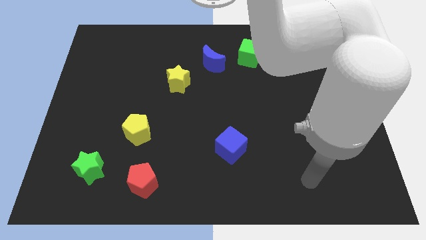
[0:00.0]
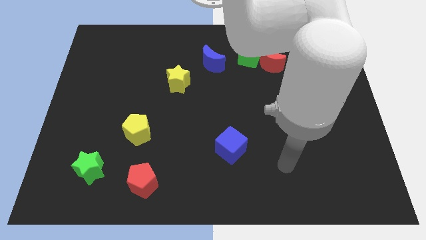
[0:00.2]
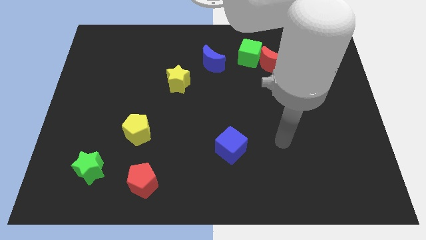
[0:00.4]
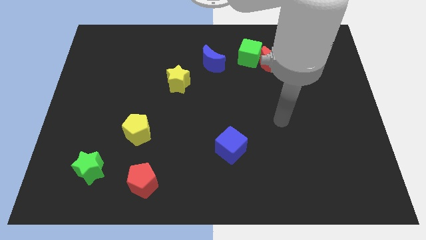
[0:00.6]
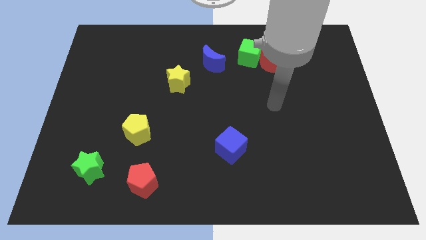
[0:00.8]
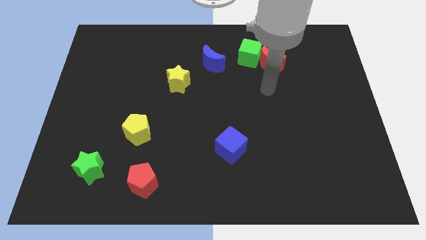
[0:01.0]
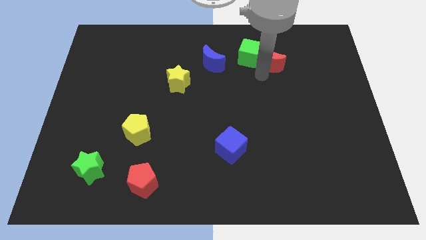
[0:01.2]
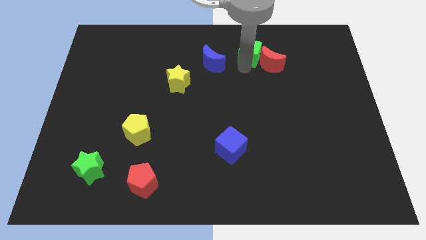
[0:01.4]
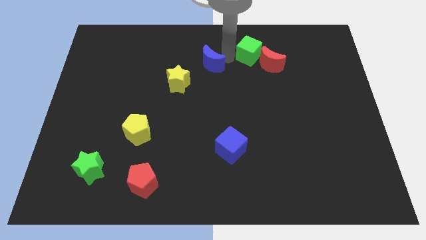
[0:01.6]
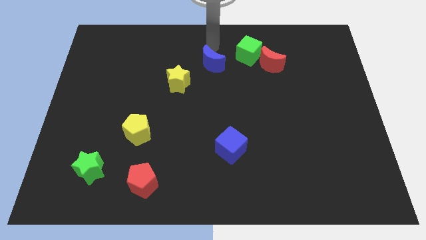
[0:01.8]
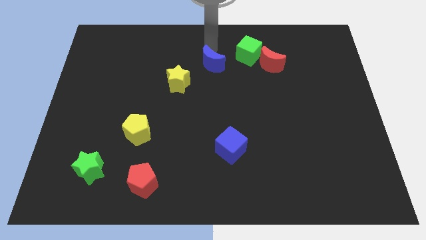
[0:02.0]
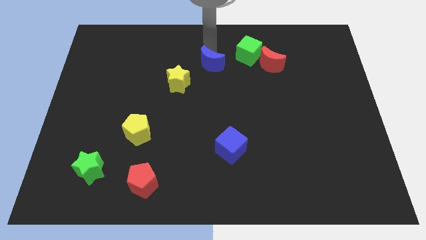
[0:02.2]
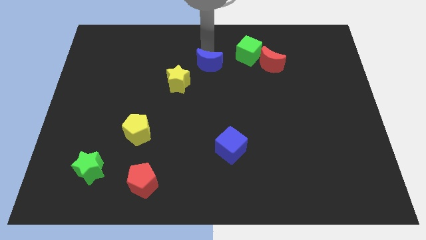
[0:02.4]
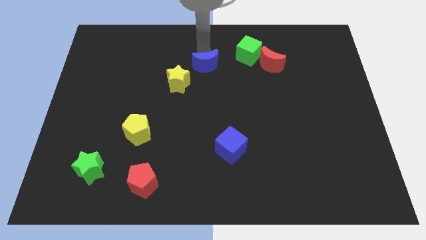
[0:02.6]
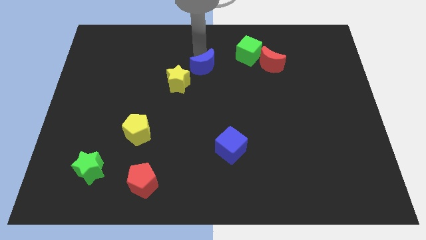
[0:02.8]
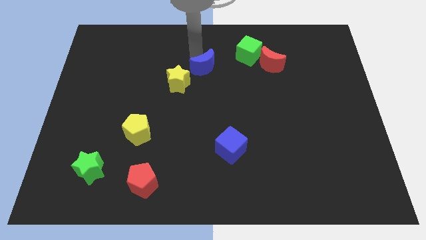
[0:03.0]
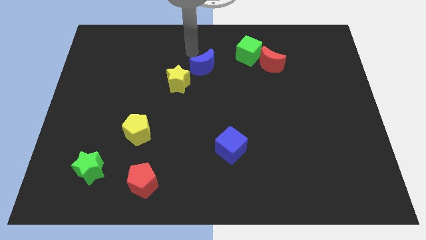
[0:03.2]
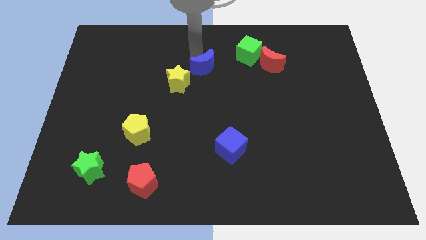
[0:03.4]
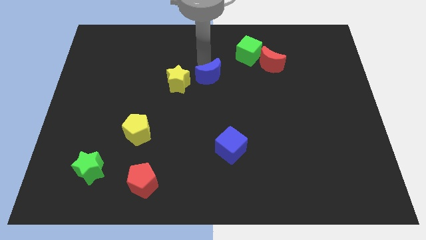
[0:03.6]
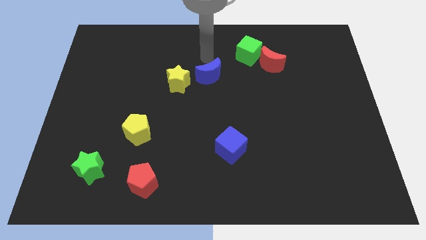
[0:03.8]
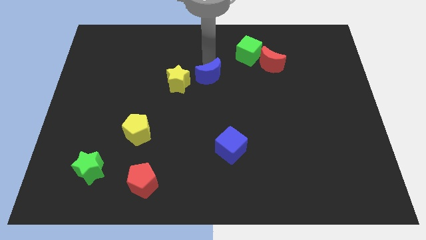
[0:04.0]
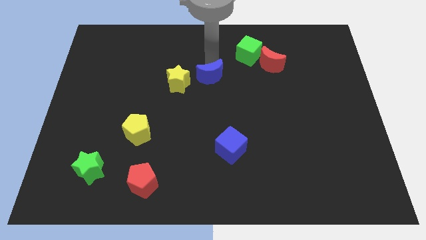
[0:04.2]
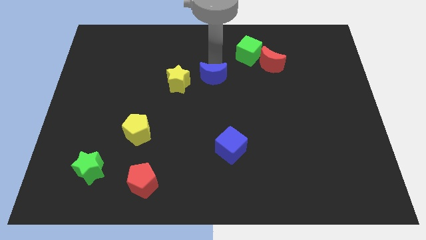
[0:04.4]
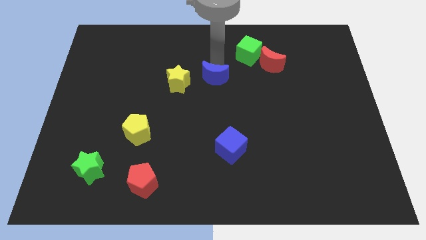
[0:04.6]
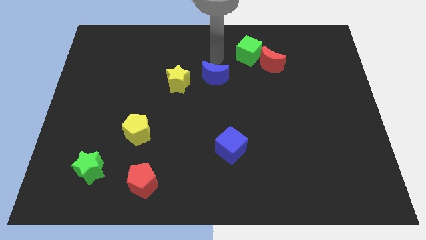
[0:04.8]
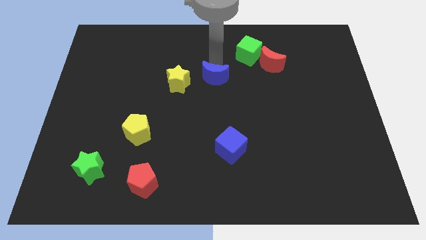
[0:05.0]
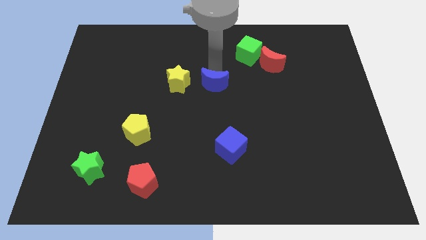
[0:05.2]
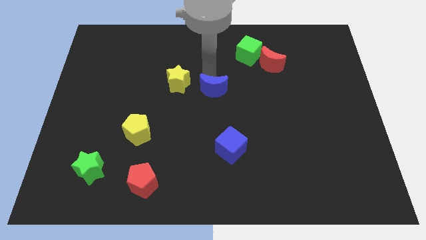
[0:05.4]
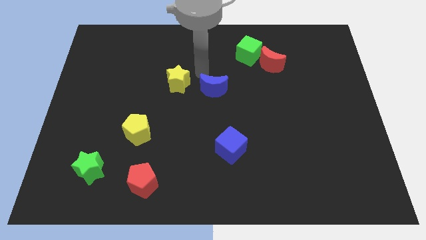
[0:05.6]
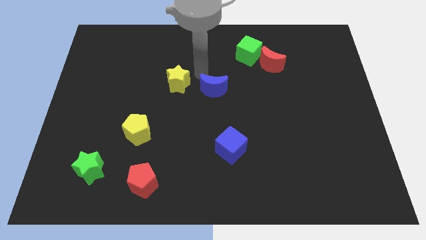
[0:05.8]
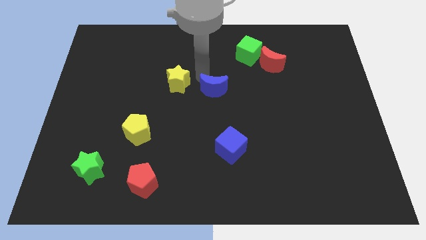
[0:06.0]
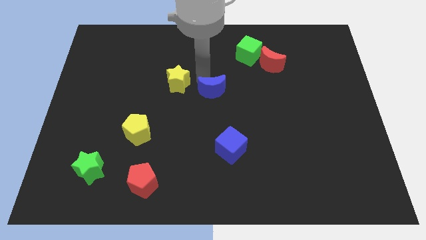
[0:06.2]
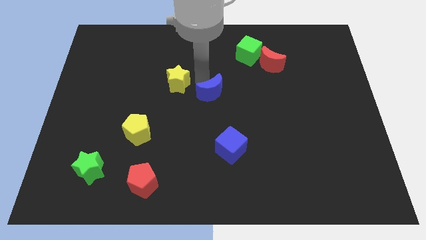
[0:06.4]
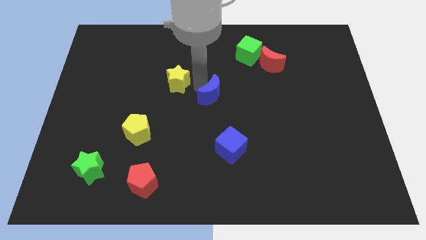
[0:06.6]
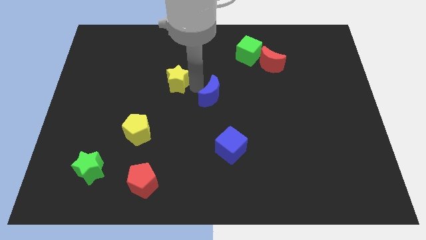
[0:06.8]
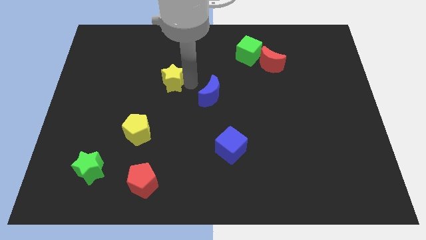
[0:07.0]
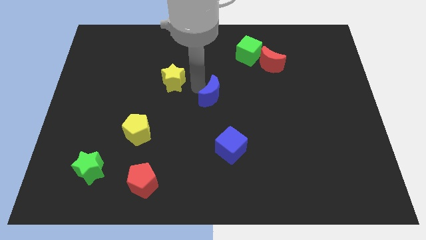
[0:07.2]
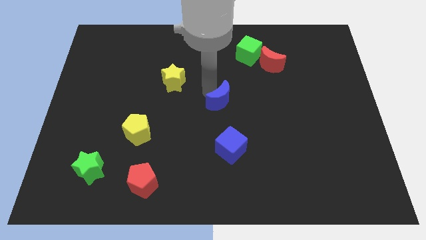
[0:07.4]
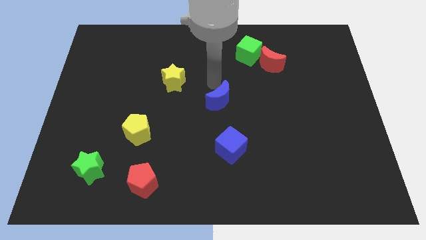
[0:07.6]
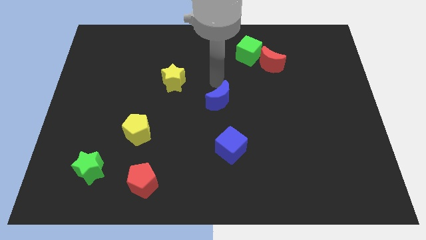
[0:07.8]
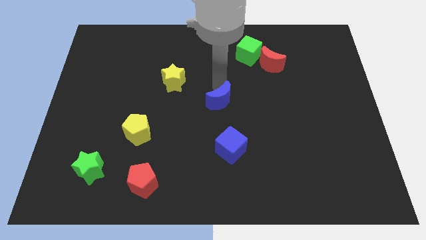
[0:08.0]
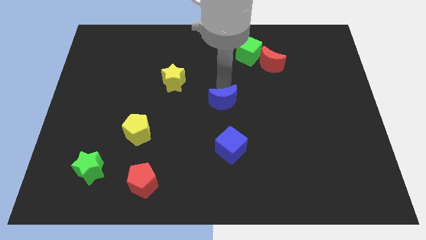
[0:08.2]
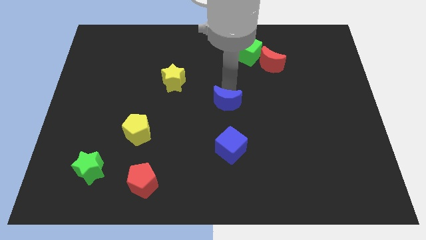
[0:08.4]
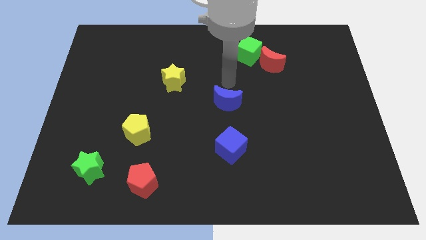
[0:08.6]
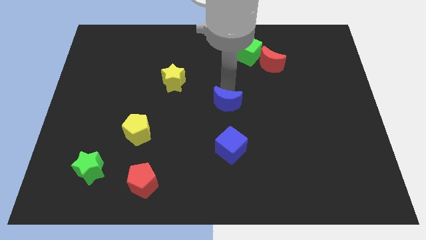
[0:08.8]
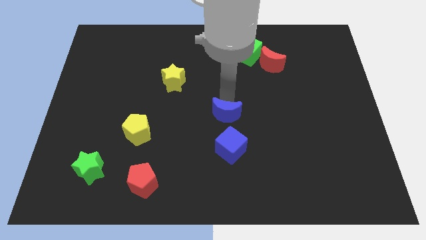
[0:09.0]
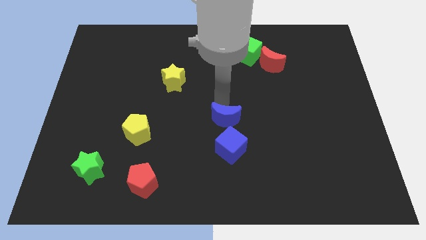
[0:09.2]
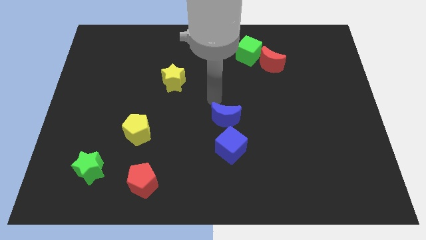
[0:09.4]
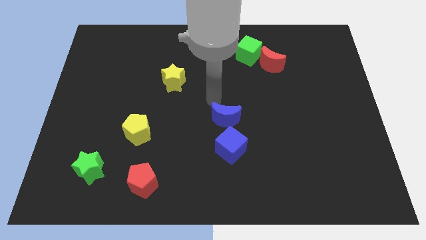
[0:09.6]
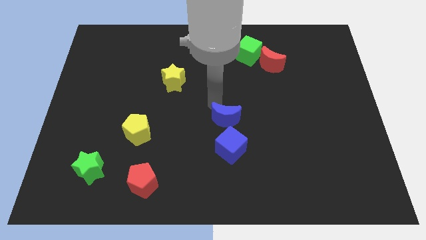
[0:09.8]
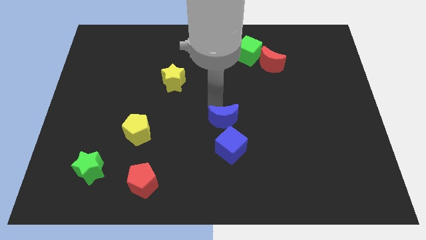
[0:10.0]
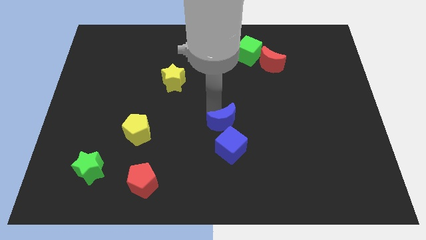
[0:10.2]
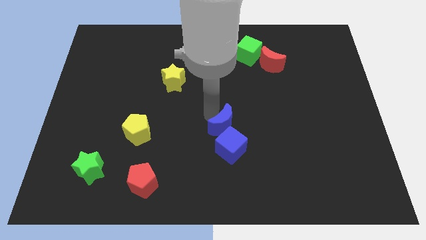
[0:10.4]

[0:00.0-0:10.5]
put the blue moon towards the blue cube
